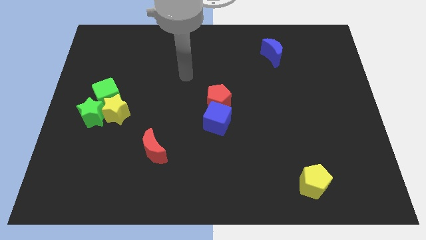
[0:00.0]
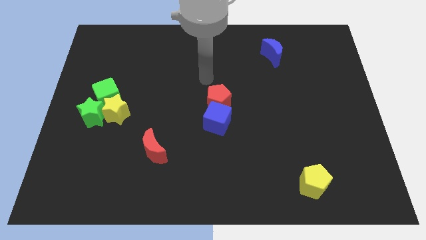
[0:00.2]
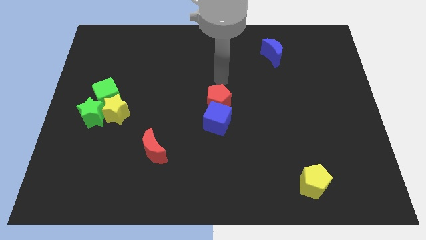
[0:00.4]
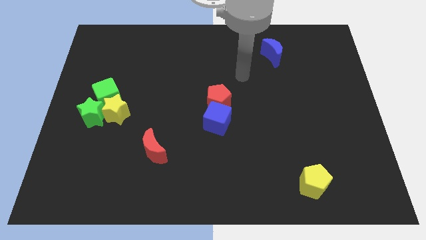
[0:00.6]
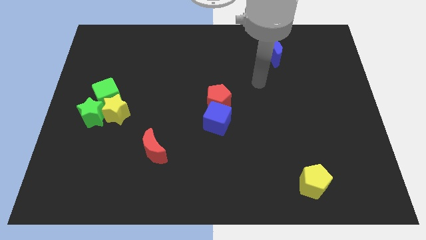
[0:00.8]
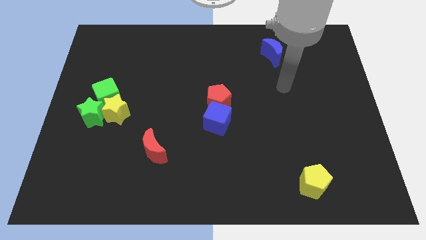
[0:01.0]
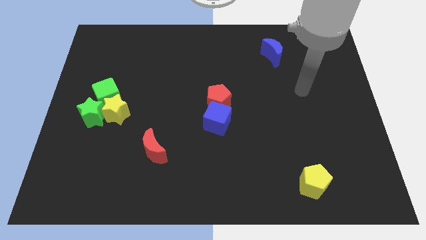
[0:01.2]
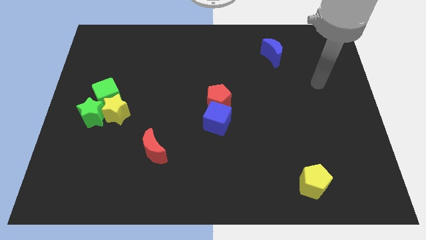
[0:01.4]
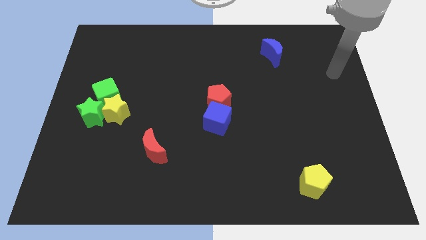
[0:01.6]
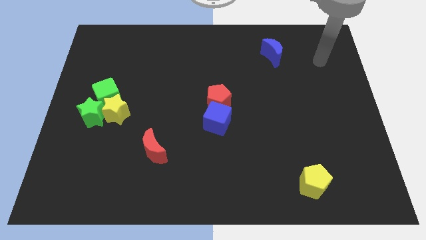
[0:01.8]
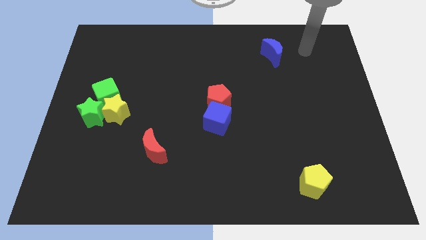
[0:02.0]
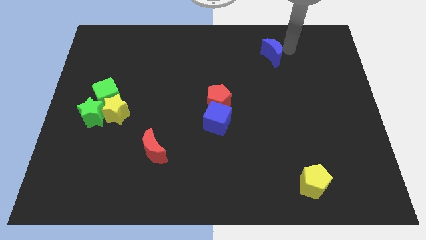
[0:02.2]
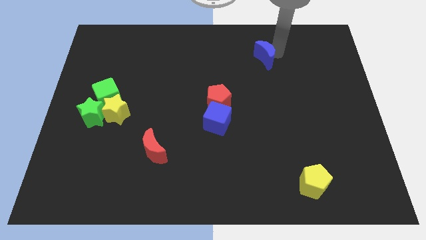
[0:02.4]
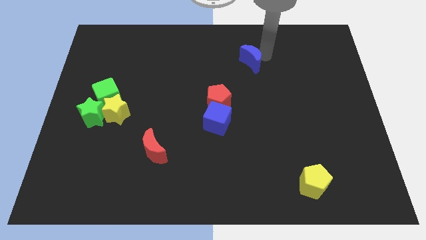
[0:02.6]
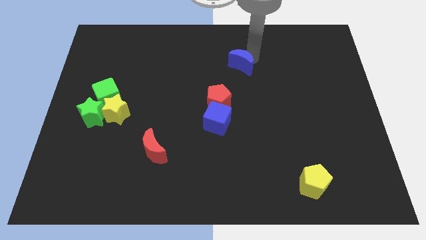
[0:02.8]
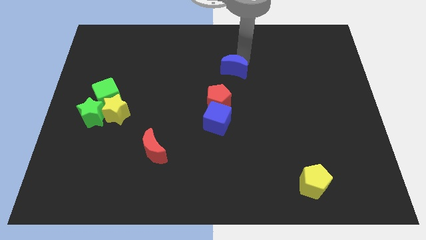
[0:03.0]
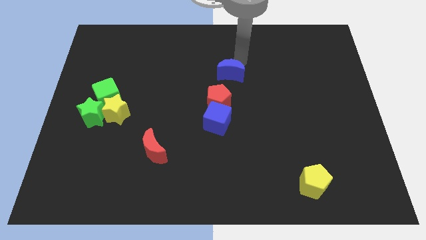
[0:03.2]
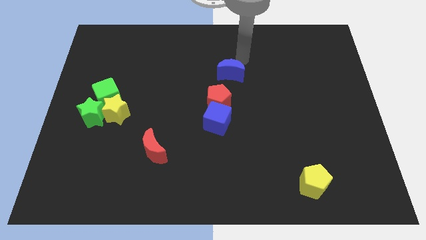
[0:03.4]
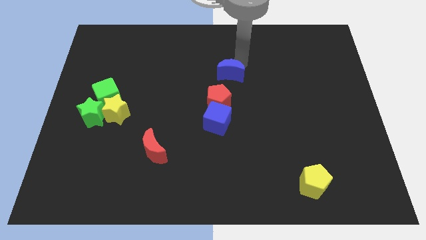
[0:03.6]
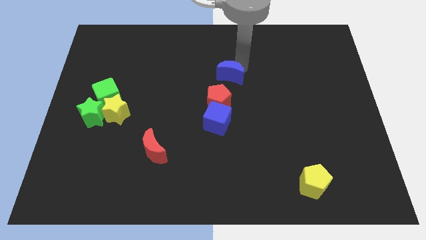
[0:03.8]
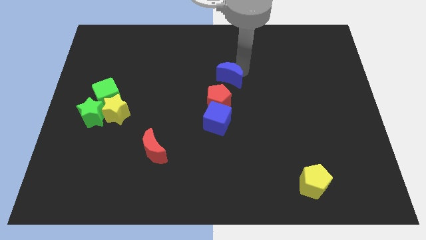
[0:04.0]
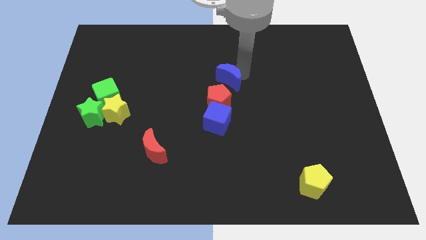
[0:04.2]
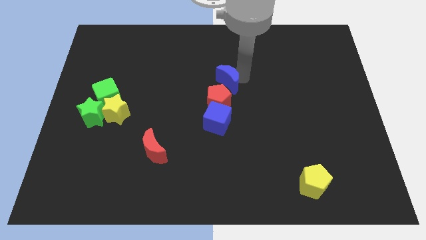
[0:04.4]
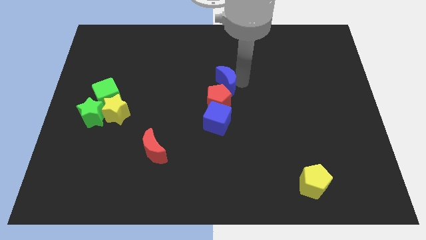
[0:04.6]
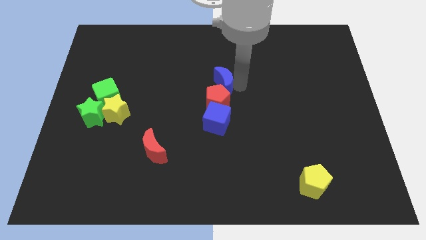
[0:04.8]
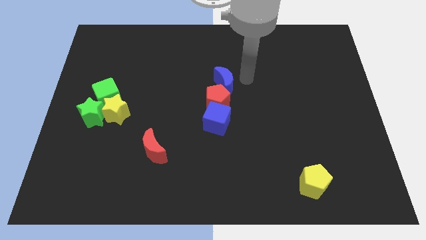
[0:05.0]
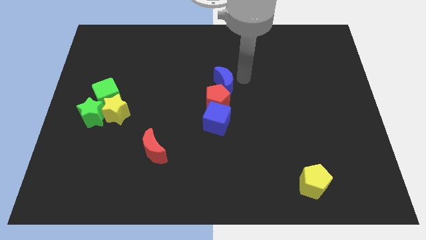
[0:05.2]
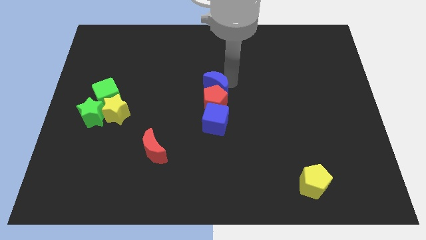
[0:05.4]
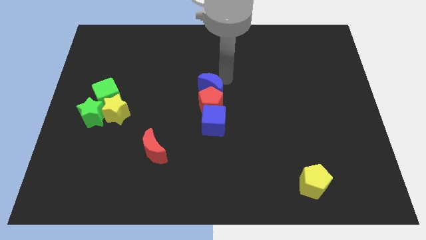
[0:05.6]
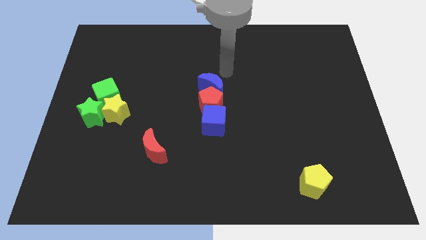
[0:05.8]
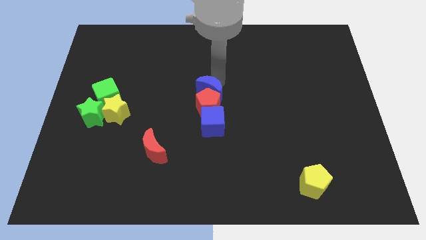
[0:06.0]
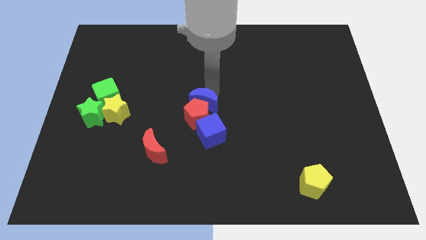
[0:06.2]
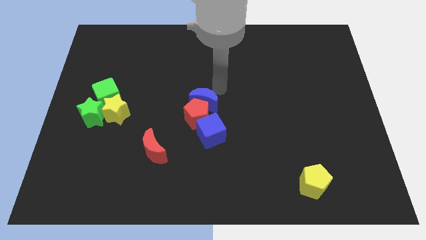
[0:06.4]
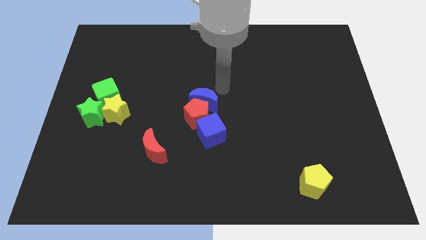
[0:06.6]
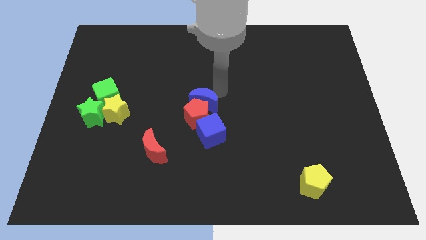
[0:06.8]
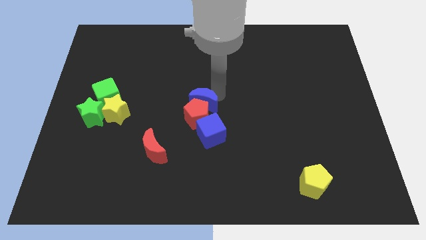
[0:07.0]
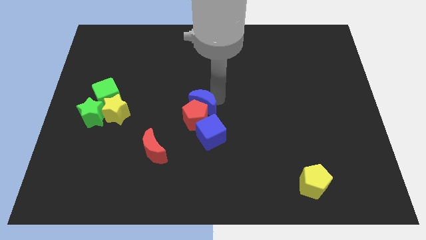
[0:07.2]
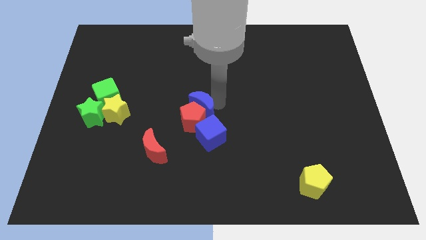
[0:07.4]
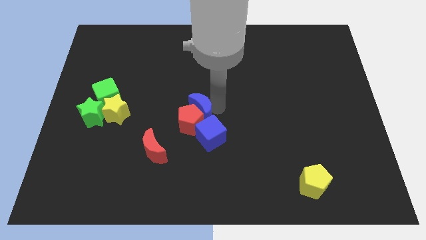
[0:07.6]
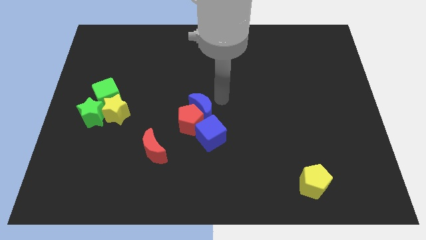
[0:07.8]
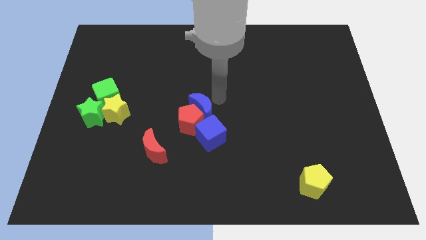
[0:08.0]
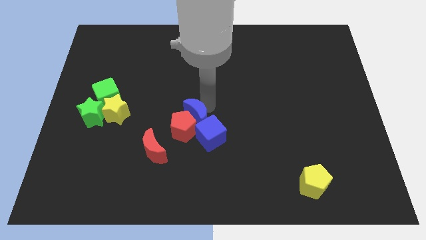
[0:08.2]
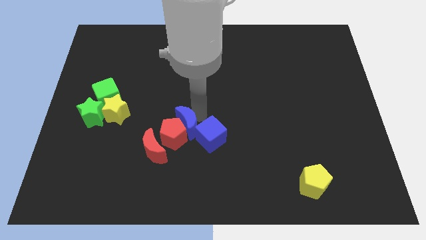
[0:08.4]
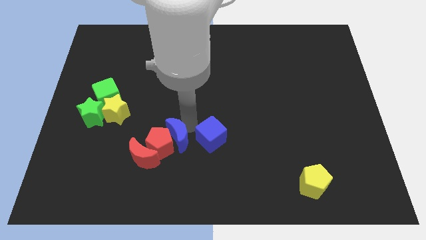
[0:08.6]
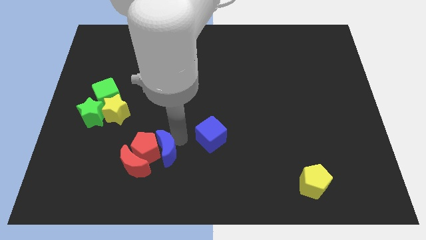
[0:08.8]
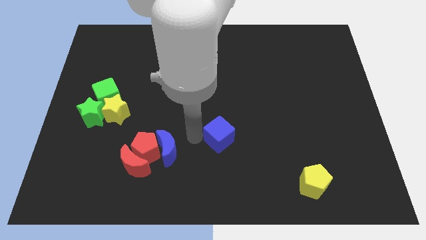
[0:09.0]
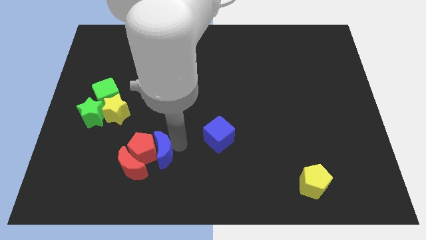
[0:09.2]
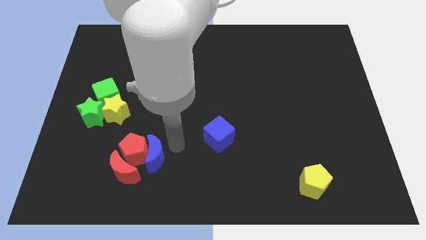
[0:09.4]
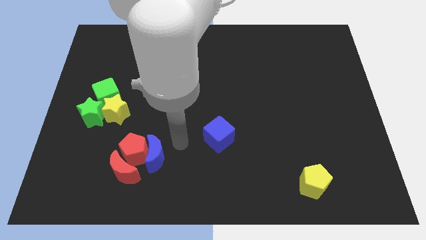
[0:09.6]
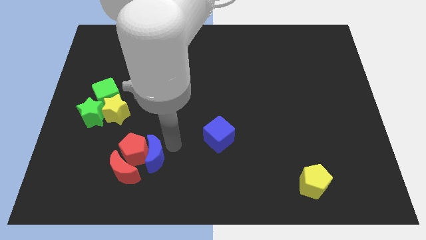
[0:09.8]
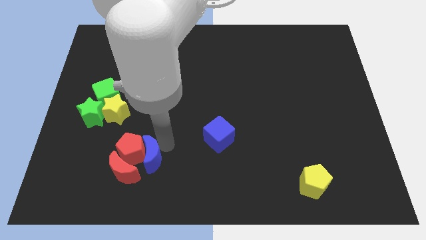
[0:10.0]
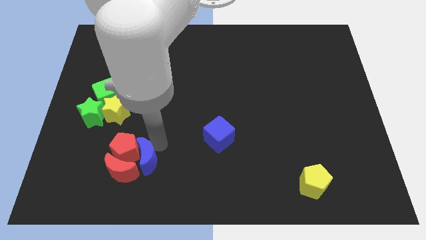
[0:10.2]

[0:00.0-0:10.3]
put the blue moon next to the red moon

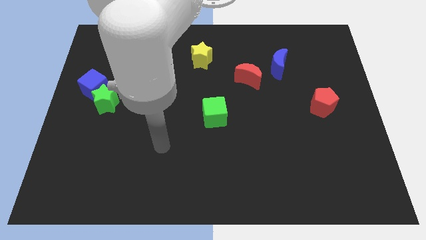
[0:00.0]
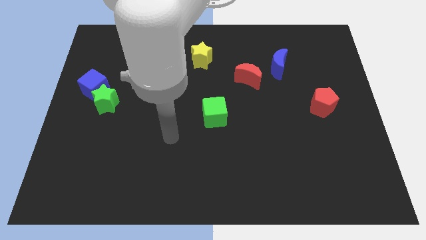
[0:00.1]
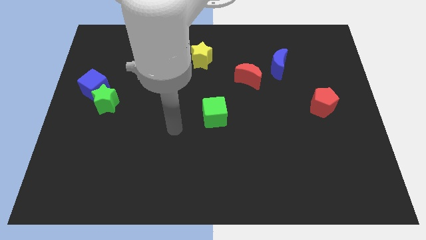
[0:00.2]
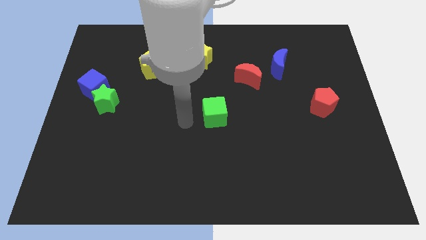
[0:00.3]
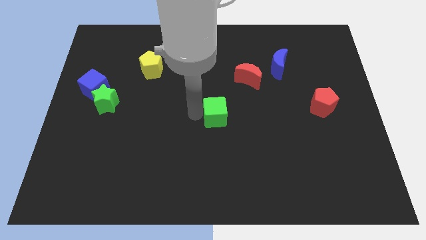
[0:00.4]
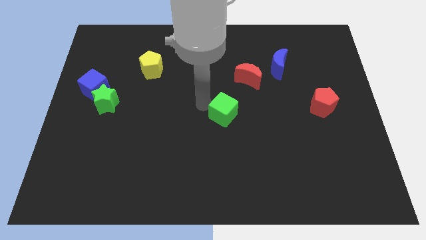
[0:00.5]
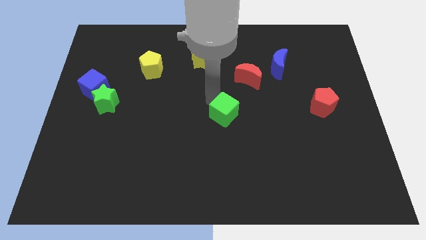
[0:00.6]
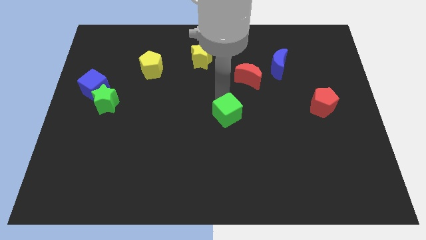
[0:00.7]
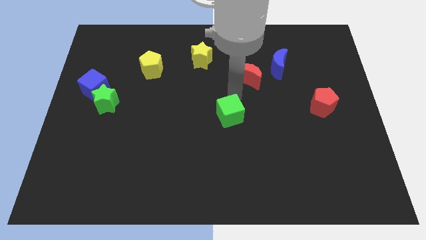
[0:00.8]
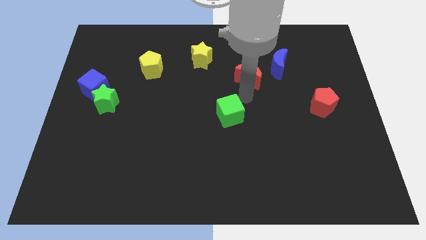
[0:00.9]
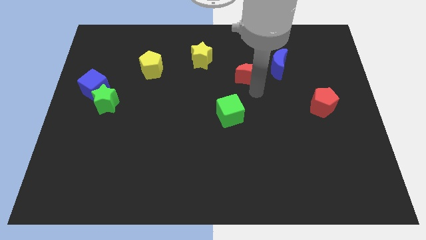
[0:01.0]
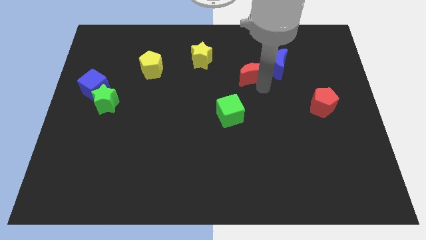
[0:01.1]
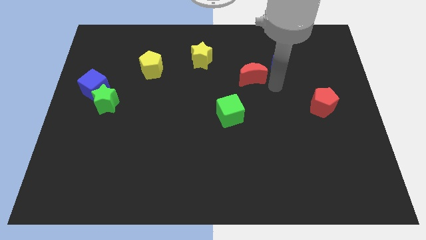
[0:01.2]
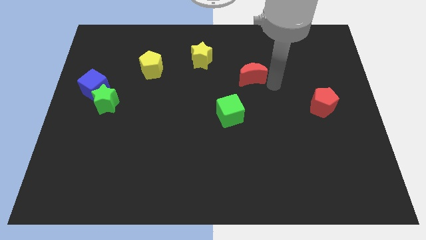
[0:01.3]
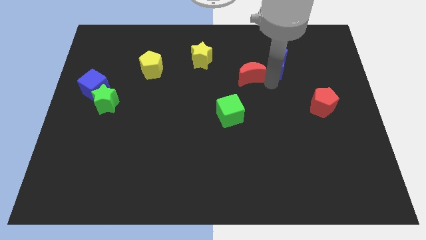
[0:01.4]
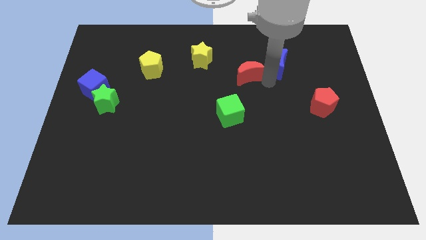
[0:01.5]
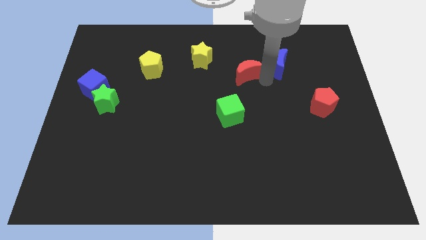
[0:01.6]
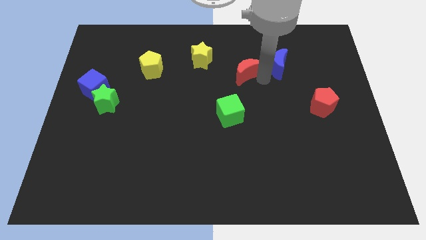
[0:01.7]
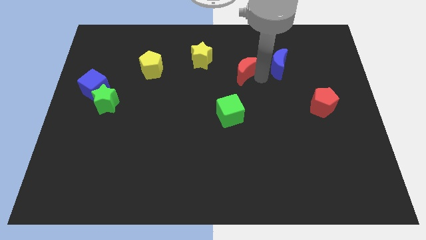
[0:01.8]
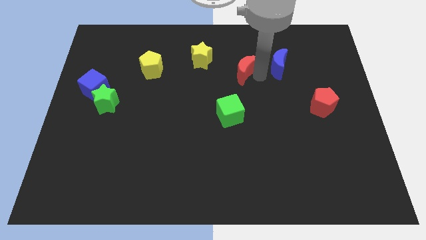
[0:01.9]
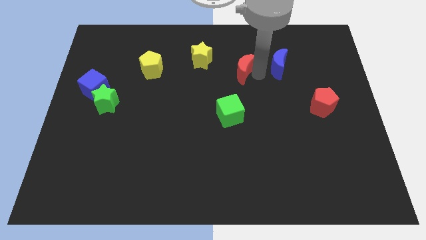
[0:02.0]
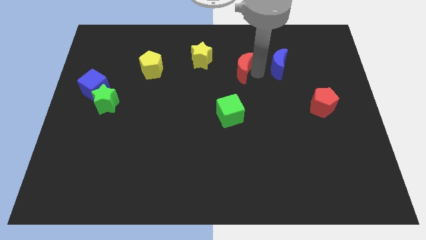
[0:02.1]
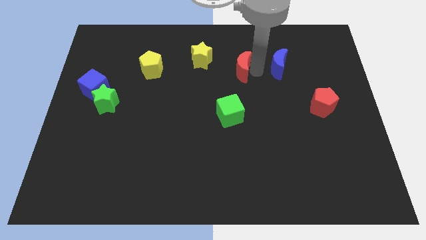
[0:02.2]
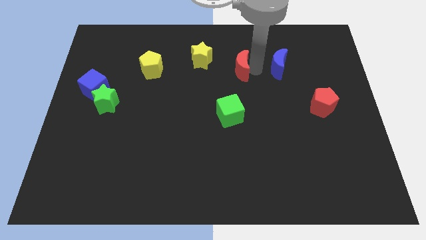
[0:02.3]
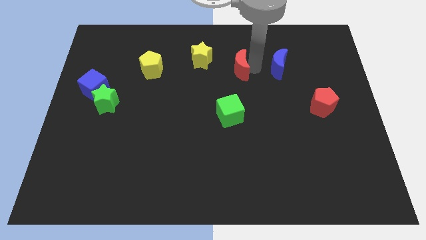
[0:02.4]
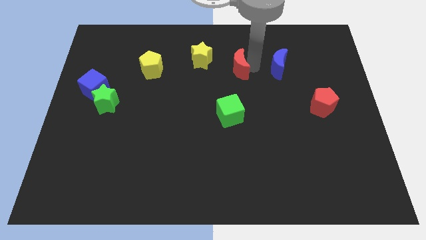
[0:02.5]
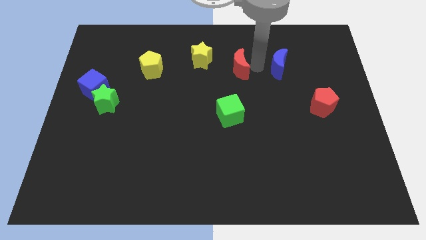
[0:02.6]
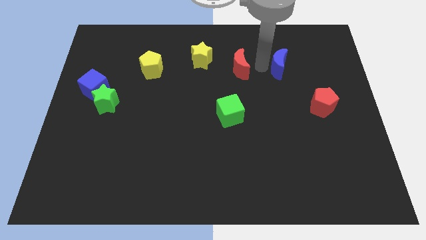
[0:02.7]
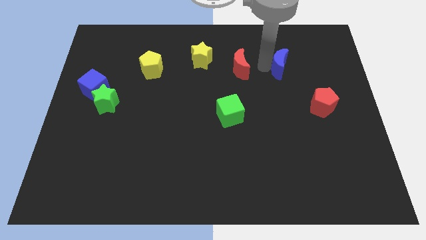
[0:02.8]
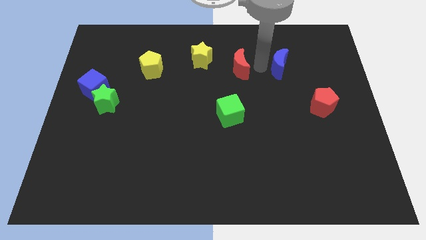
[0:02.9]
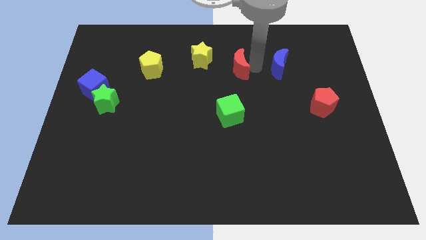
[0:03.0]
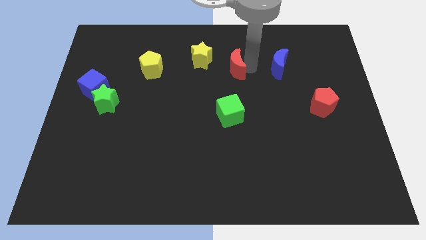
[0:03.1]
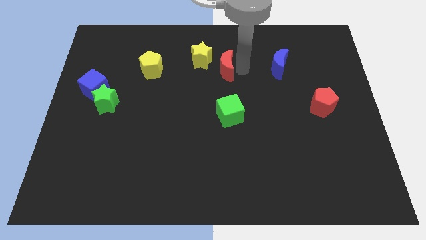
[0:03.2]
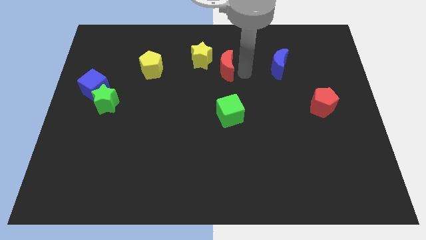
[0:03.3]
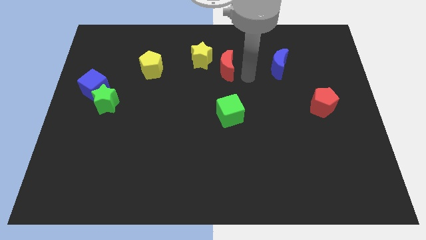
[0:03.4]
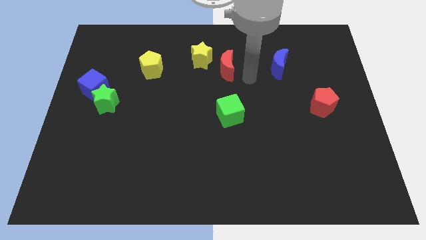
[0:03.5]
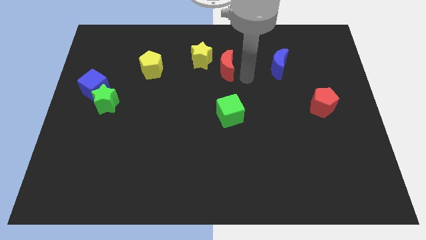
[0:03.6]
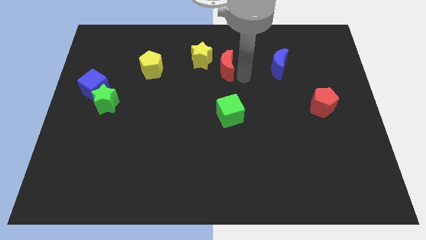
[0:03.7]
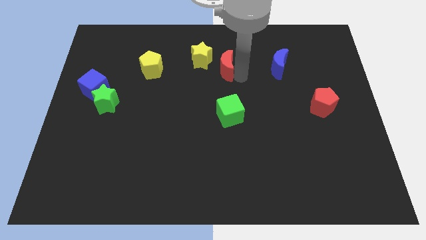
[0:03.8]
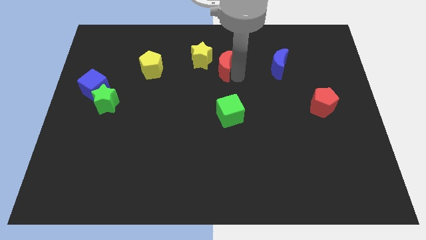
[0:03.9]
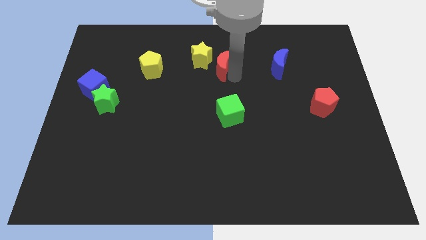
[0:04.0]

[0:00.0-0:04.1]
push the red moon to the yellow star
